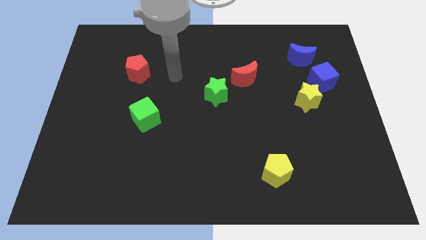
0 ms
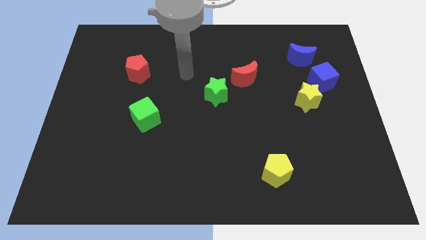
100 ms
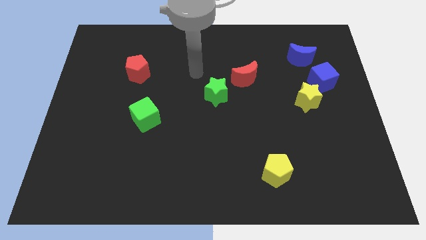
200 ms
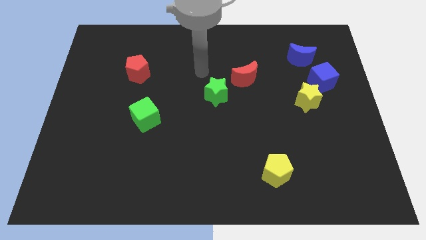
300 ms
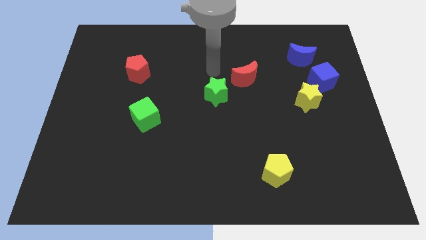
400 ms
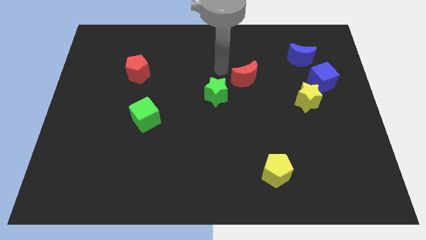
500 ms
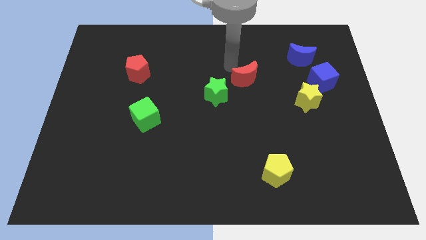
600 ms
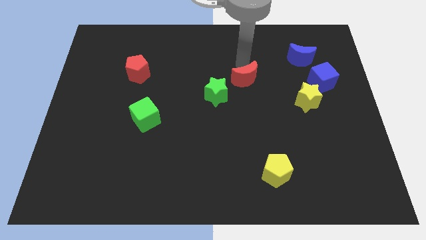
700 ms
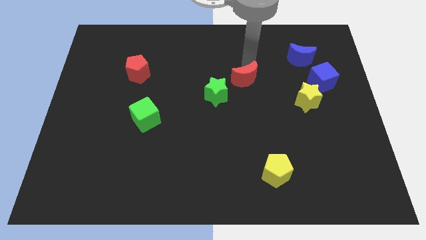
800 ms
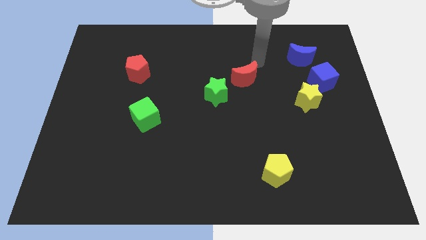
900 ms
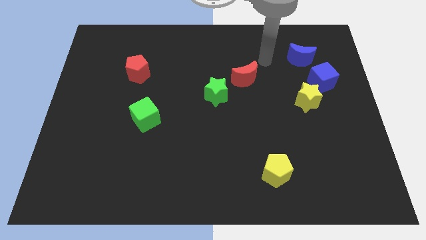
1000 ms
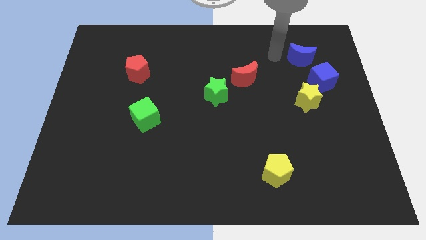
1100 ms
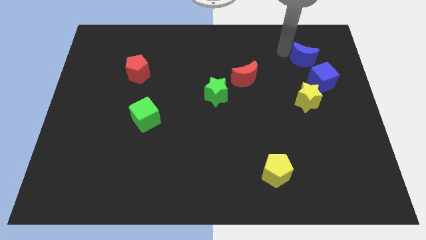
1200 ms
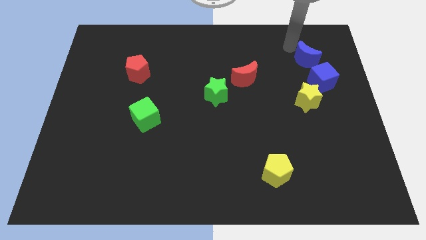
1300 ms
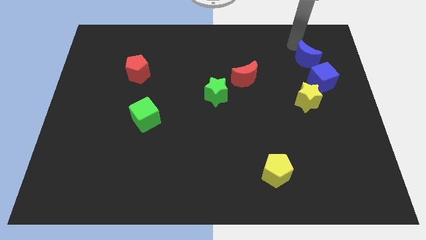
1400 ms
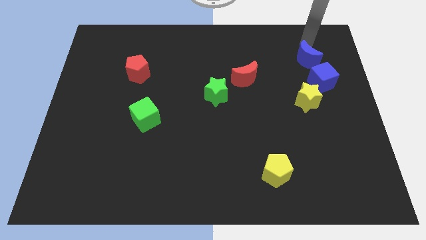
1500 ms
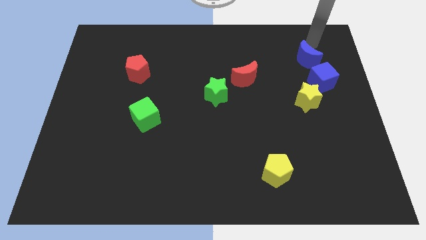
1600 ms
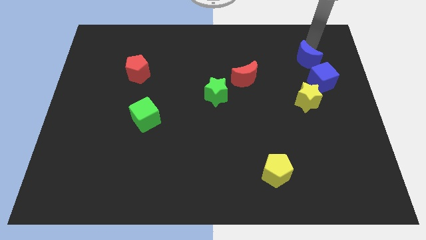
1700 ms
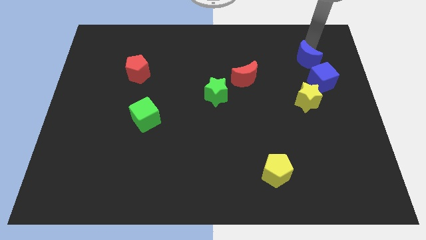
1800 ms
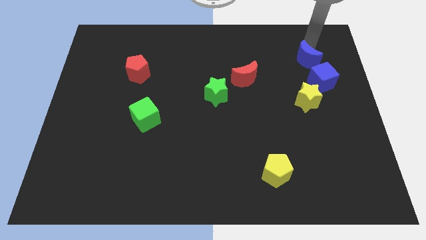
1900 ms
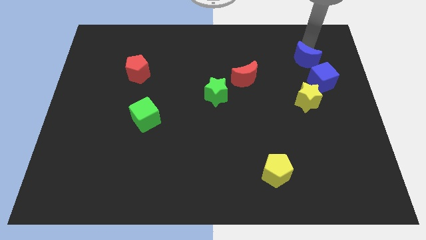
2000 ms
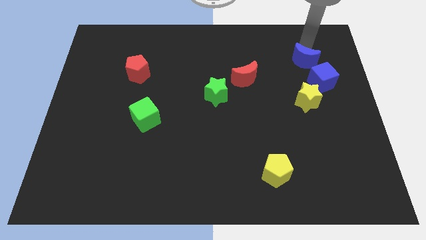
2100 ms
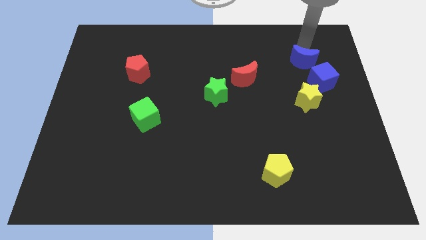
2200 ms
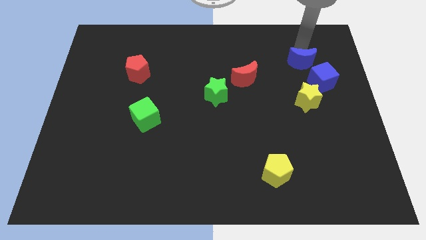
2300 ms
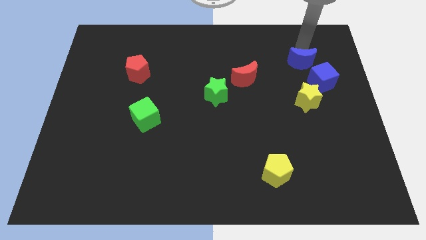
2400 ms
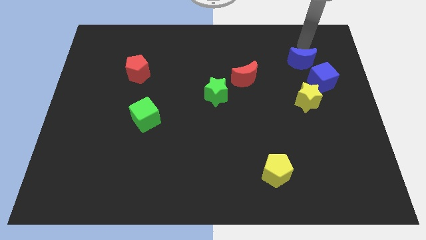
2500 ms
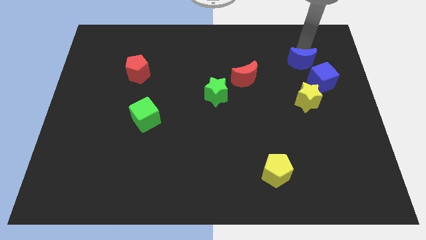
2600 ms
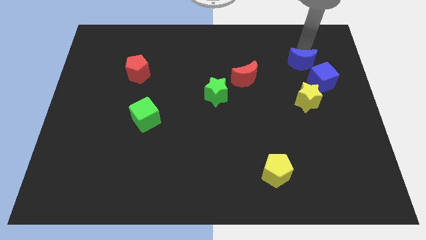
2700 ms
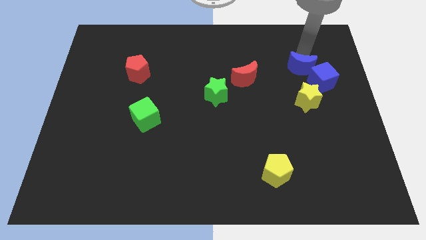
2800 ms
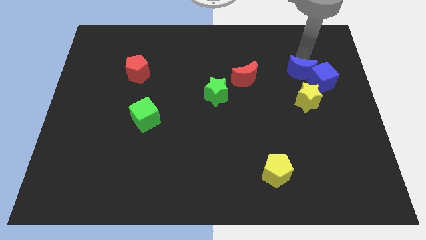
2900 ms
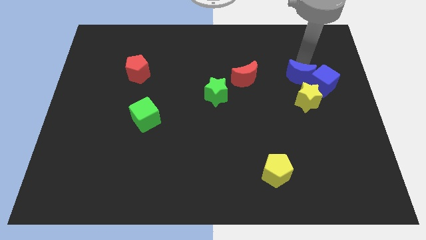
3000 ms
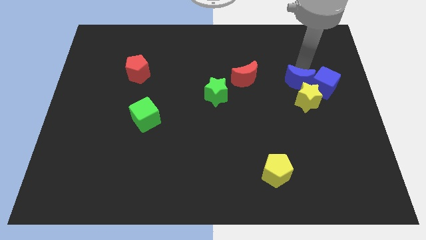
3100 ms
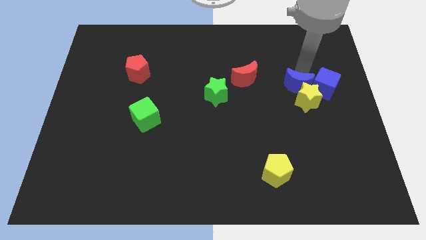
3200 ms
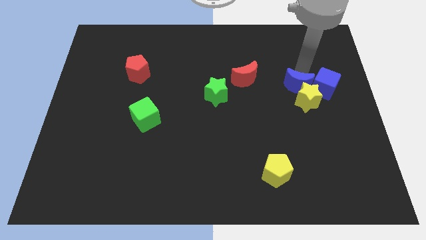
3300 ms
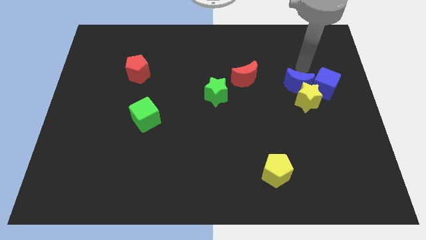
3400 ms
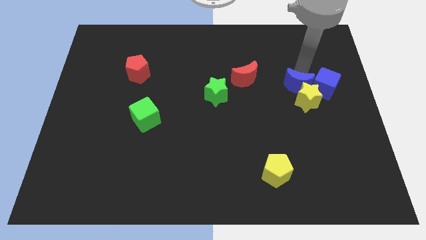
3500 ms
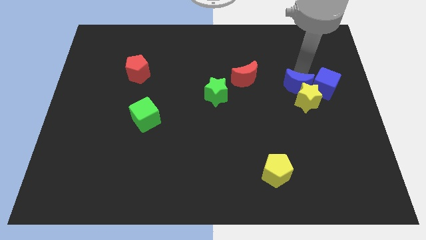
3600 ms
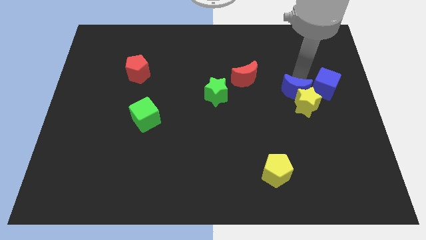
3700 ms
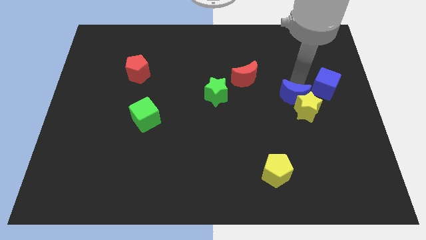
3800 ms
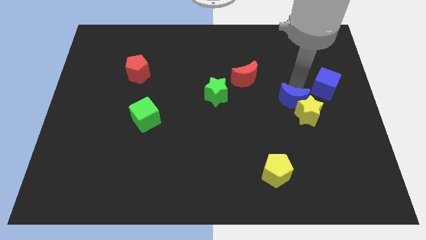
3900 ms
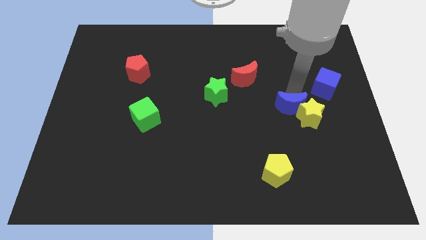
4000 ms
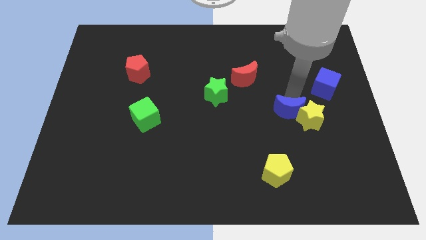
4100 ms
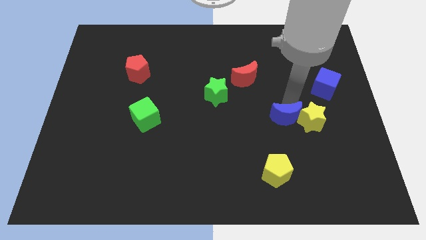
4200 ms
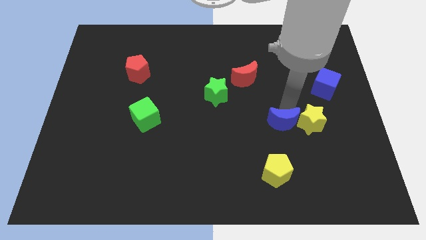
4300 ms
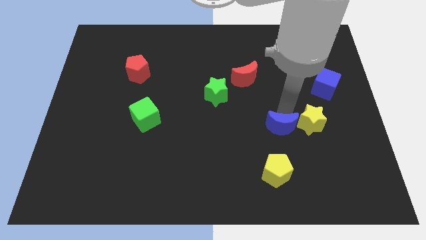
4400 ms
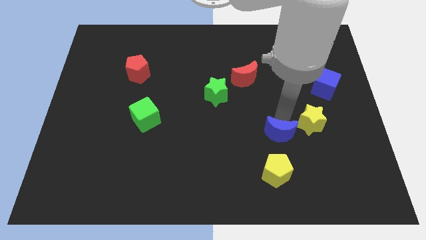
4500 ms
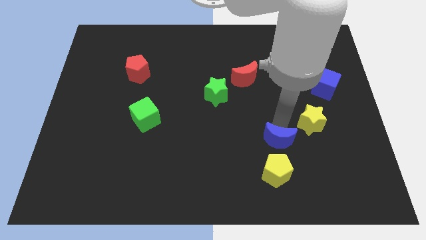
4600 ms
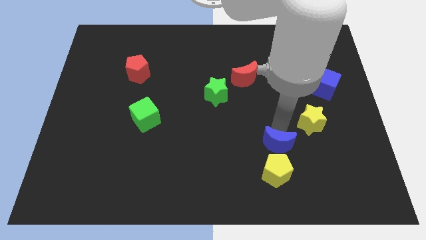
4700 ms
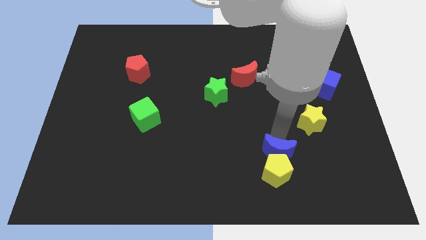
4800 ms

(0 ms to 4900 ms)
move the blue moon to the yellow pentagon

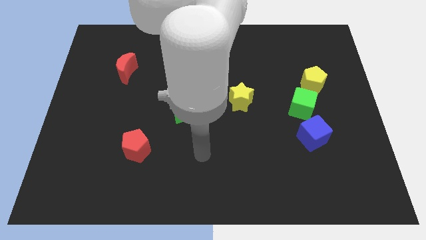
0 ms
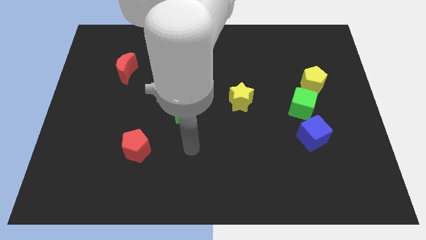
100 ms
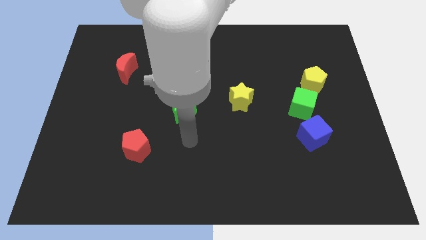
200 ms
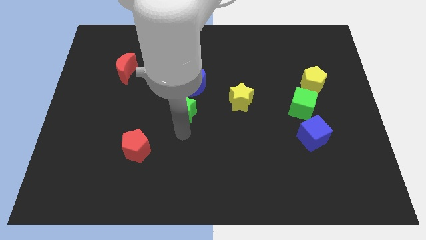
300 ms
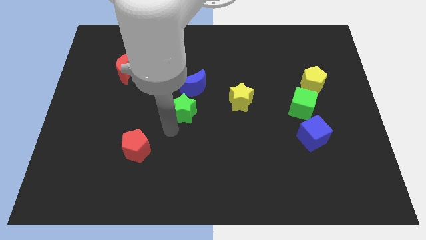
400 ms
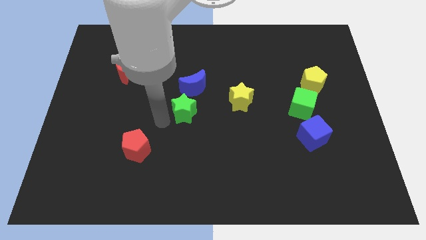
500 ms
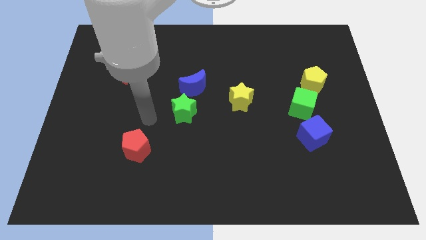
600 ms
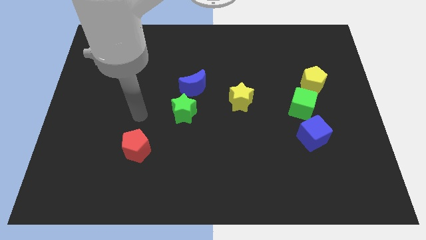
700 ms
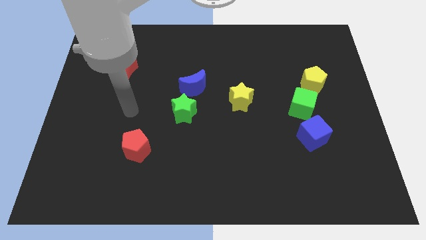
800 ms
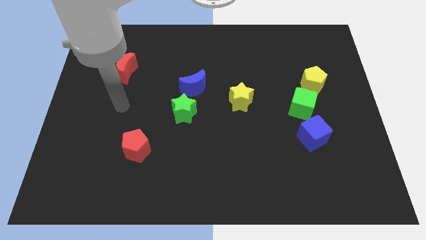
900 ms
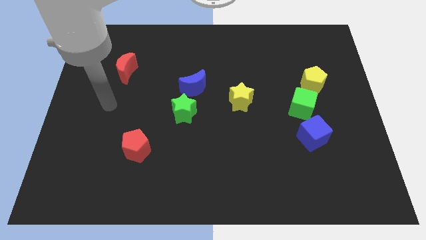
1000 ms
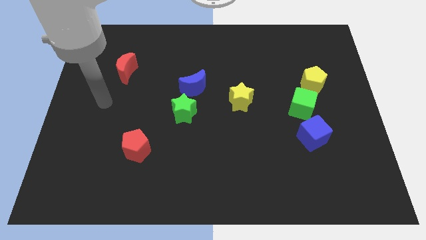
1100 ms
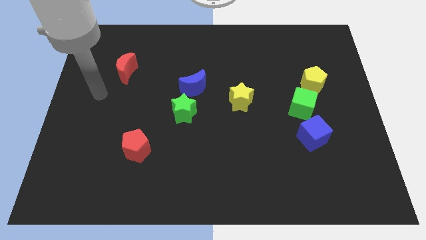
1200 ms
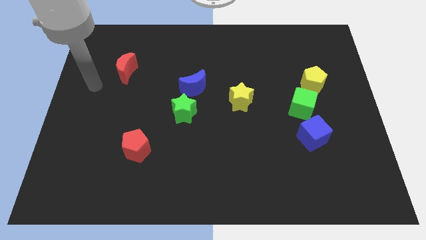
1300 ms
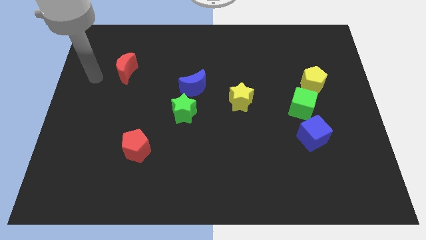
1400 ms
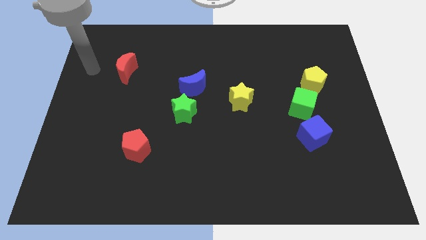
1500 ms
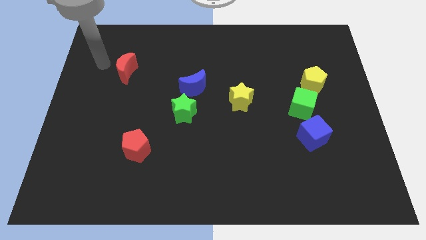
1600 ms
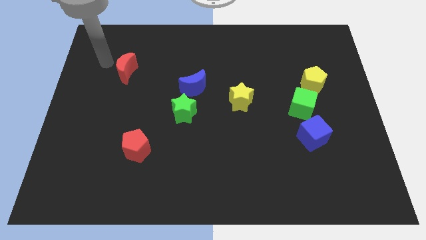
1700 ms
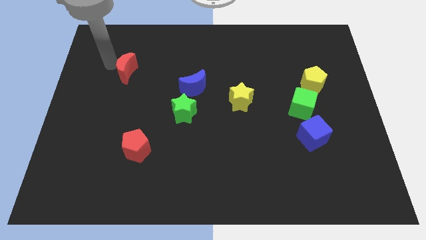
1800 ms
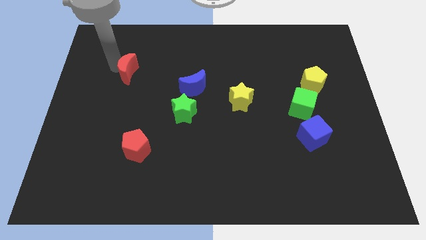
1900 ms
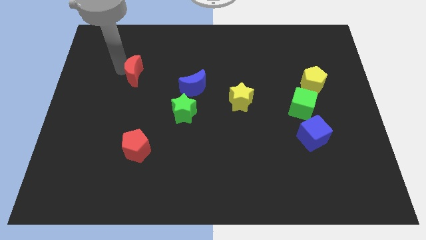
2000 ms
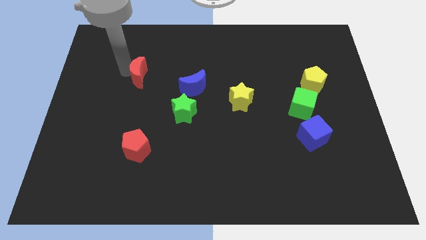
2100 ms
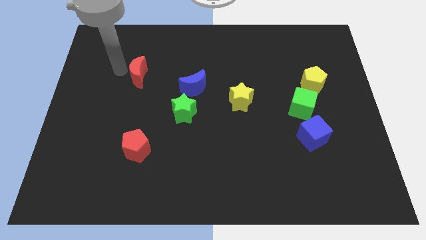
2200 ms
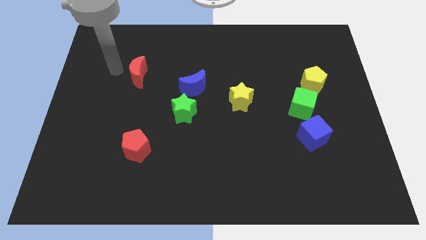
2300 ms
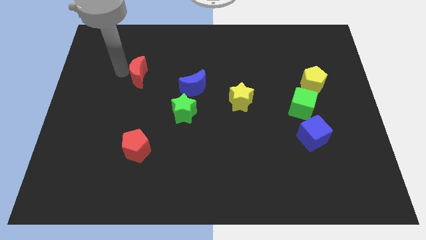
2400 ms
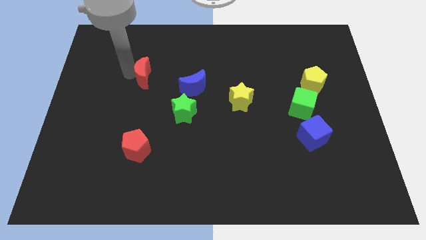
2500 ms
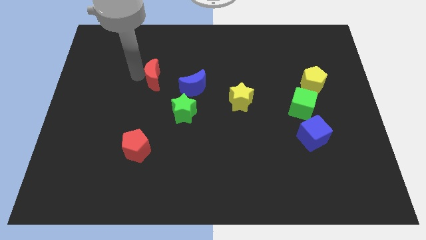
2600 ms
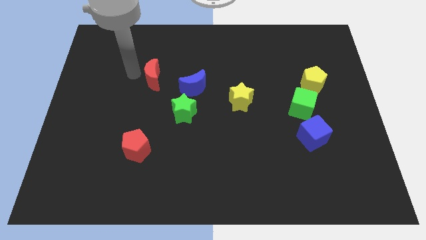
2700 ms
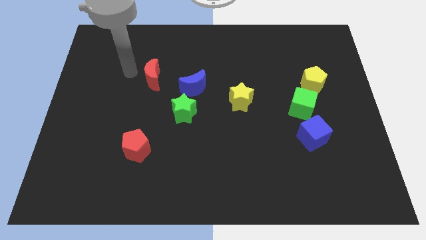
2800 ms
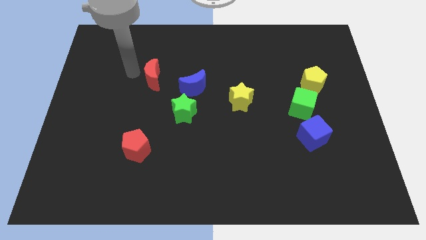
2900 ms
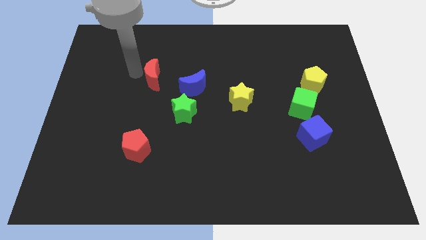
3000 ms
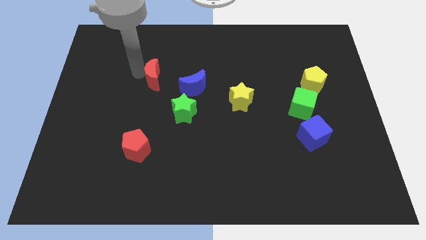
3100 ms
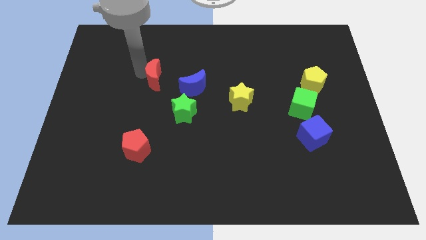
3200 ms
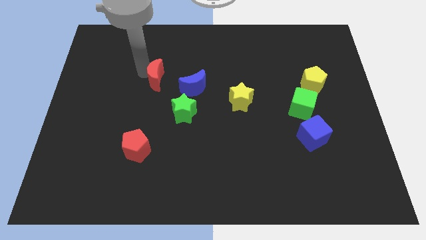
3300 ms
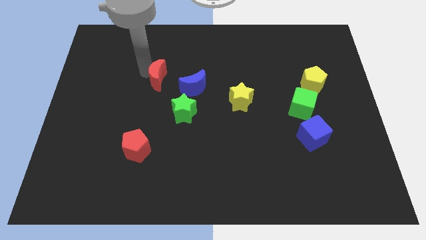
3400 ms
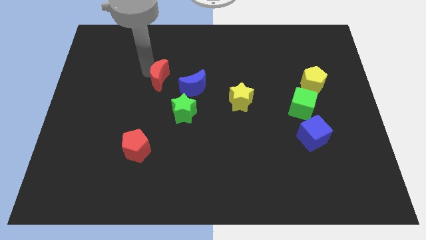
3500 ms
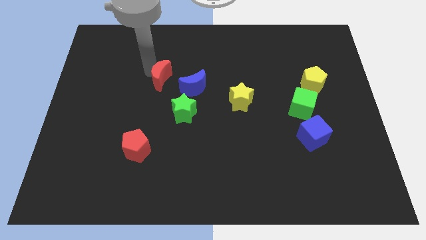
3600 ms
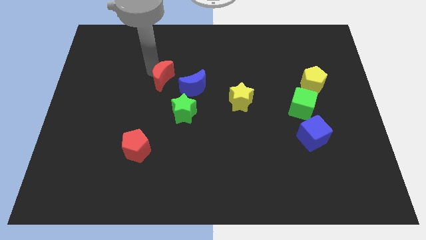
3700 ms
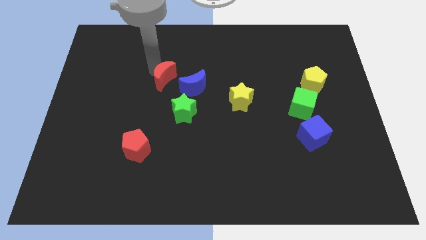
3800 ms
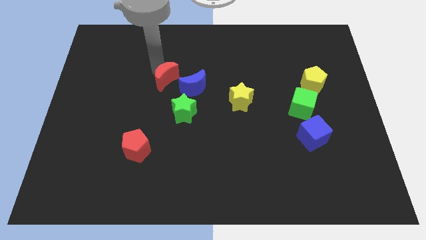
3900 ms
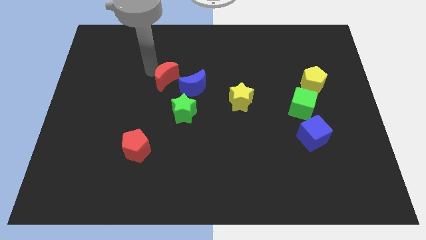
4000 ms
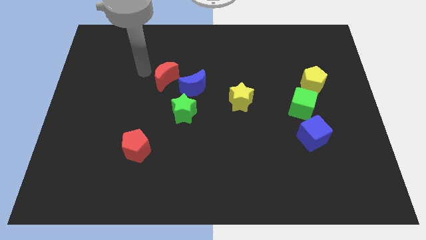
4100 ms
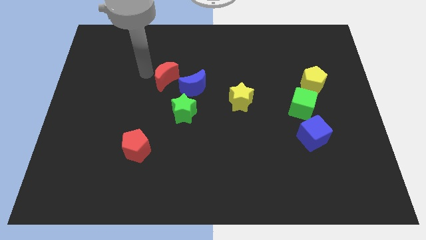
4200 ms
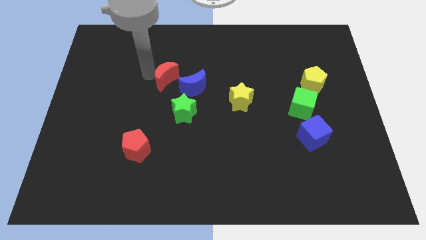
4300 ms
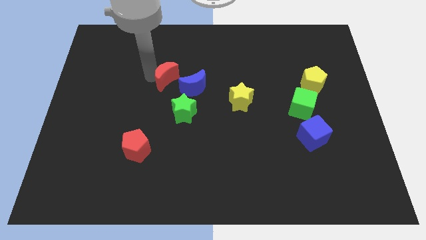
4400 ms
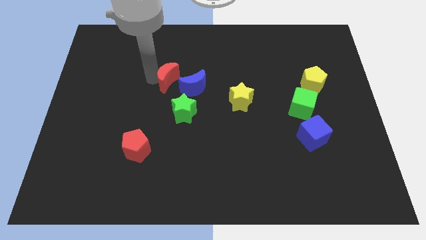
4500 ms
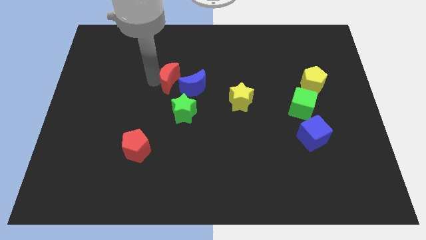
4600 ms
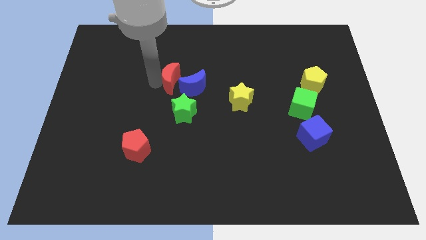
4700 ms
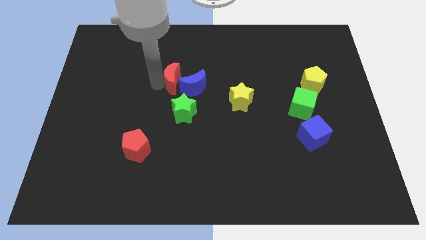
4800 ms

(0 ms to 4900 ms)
move the red moon to the blue moon
